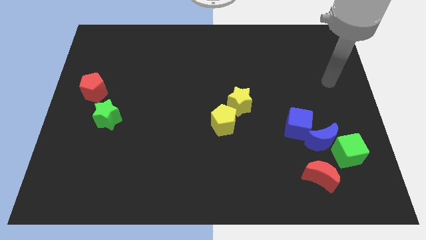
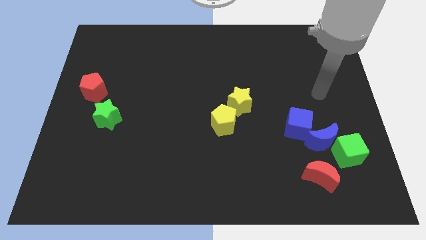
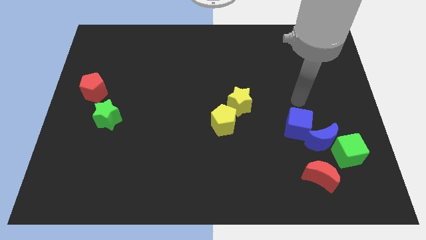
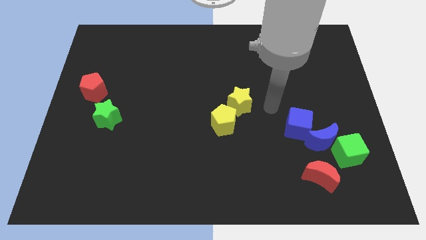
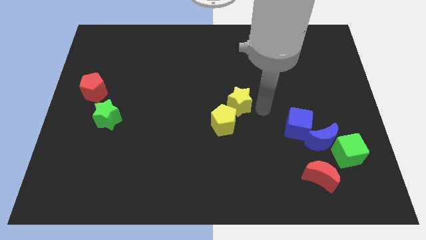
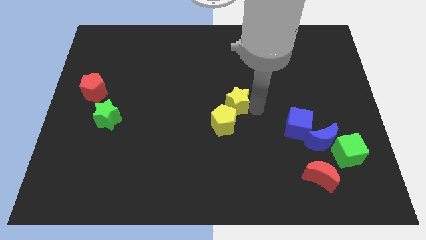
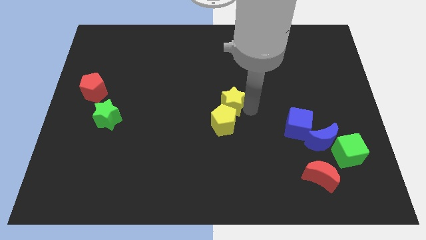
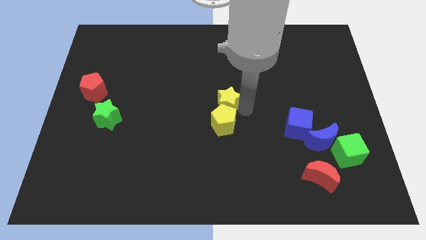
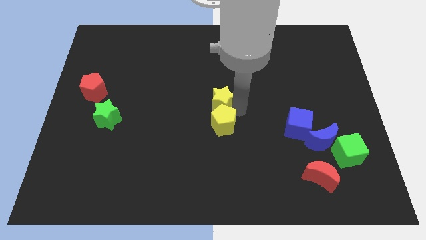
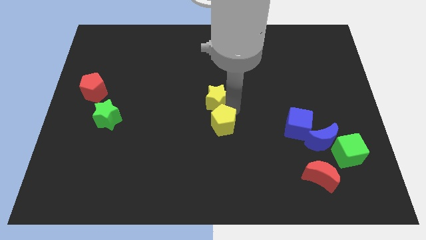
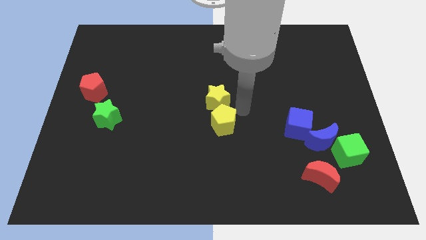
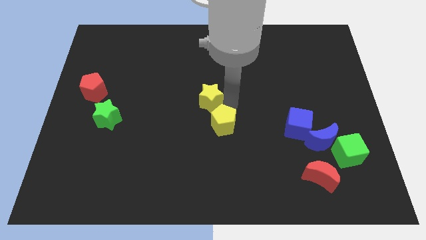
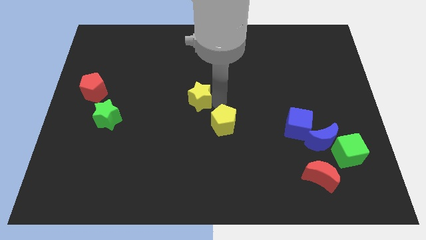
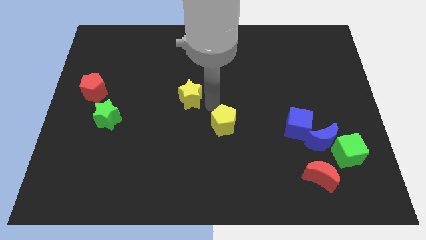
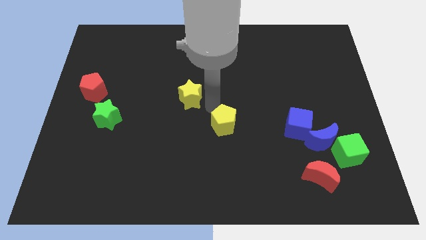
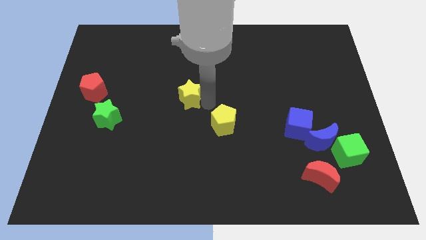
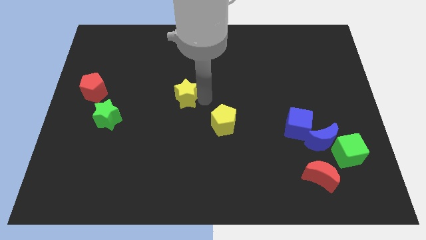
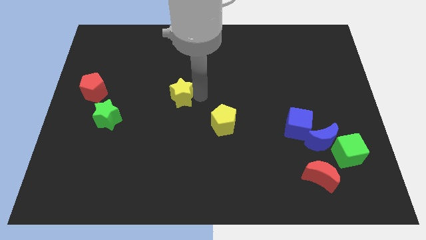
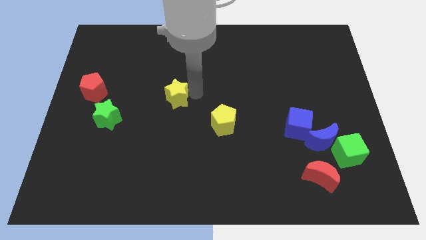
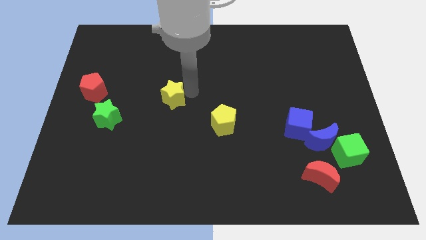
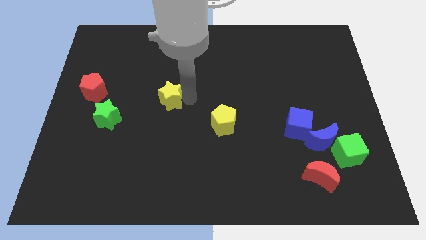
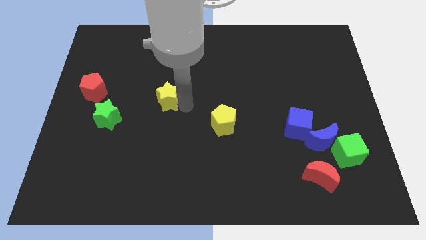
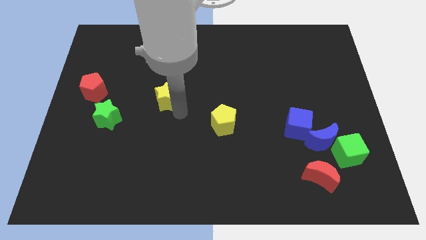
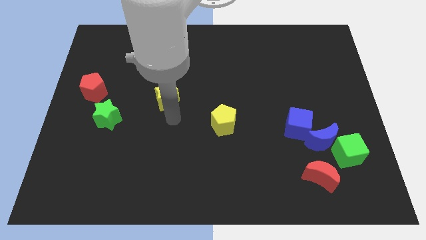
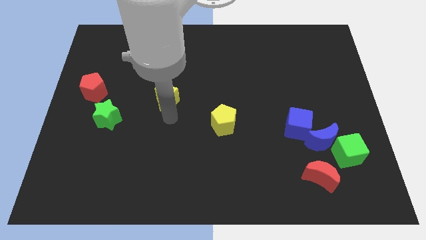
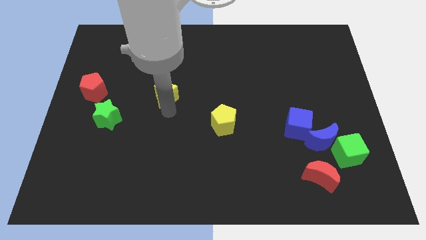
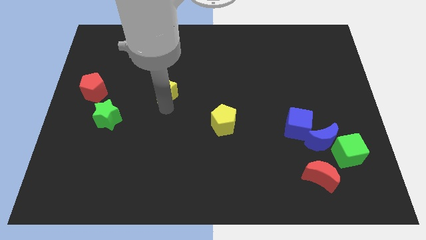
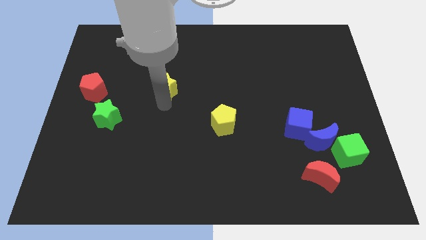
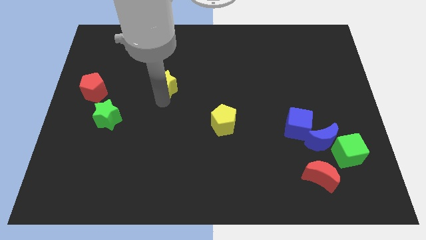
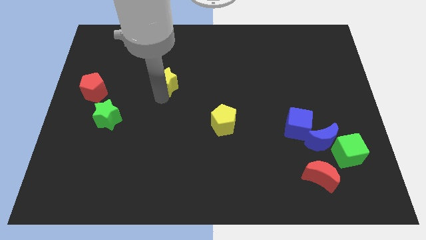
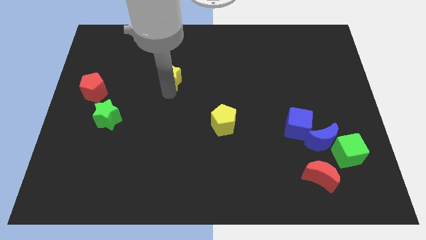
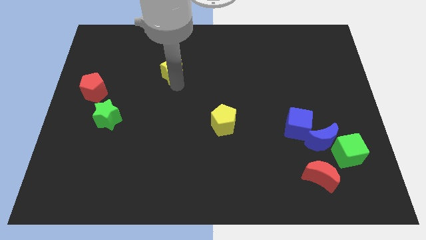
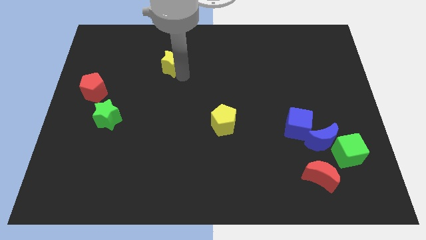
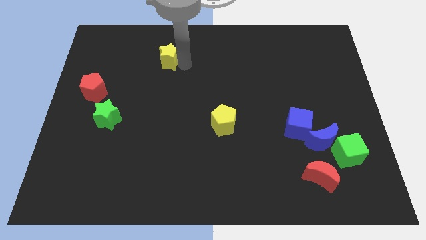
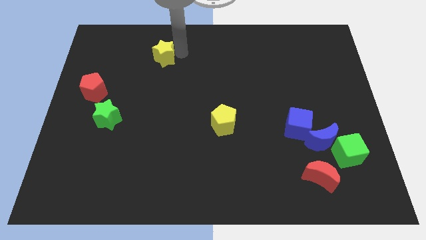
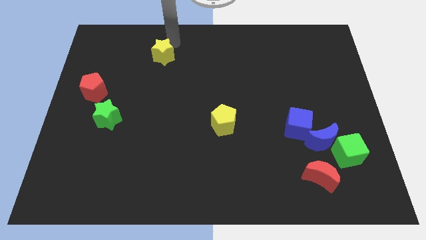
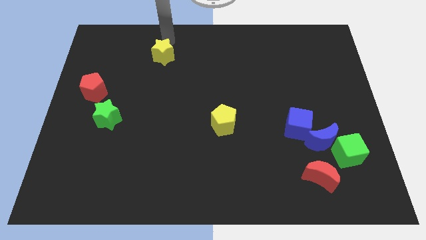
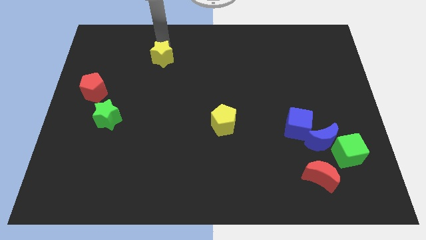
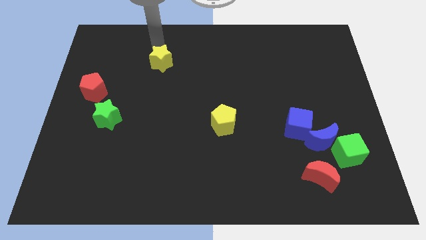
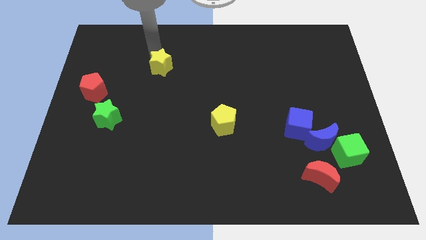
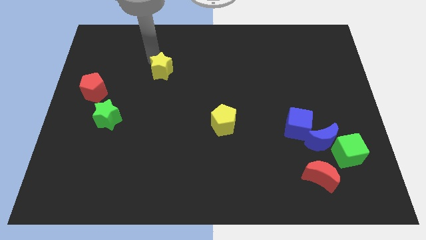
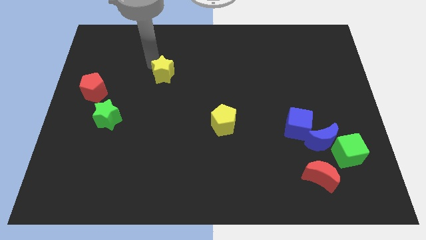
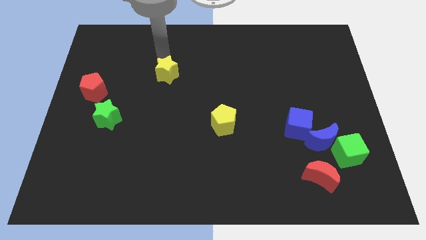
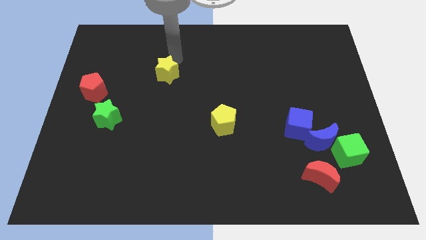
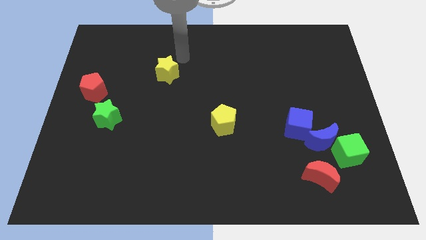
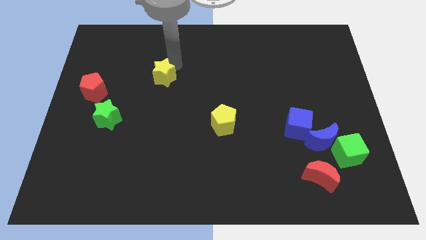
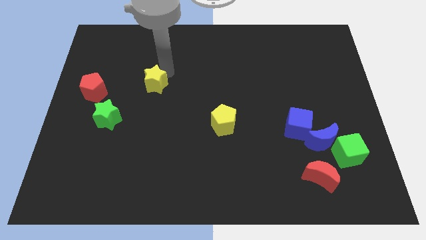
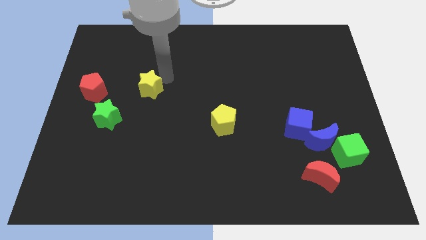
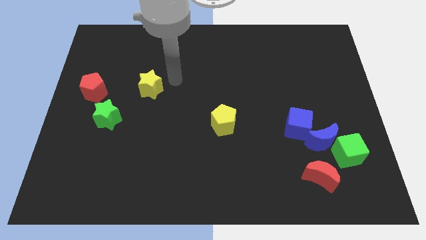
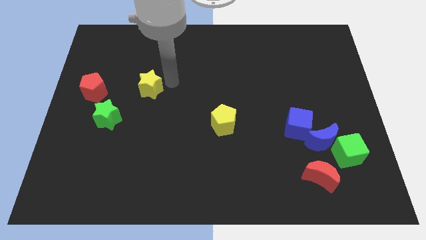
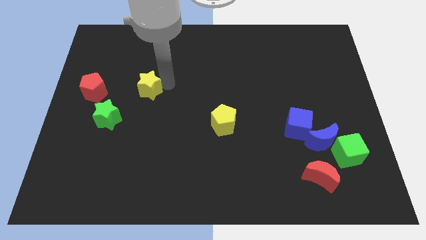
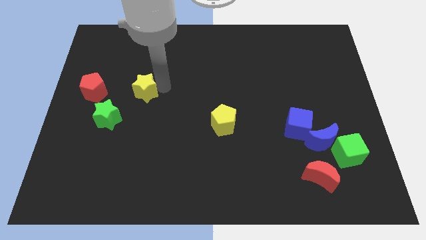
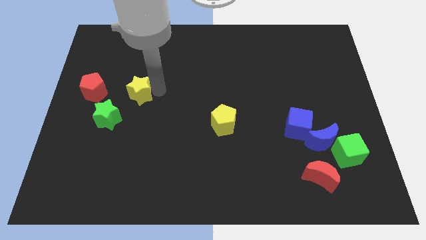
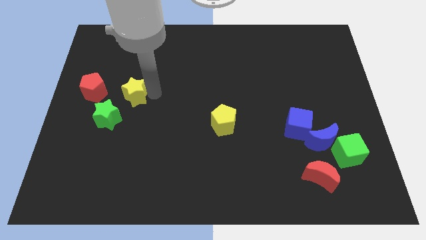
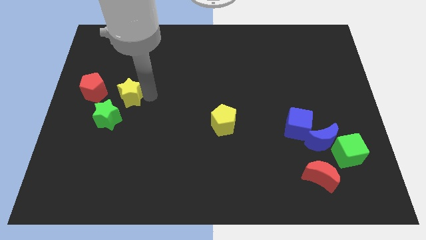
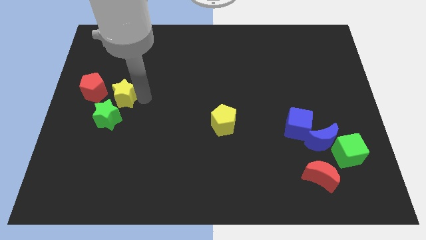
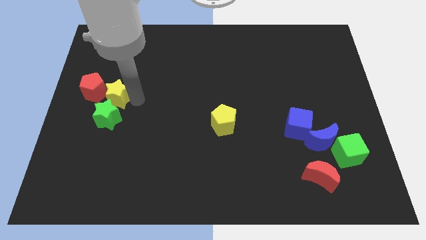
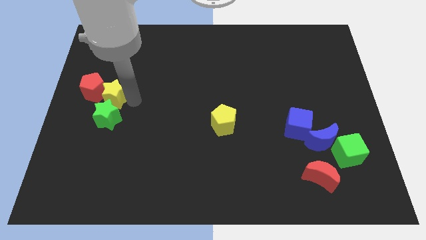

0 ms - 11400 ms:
move the yellow star towards the red pentagon

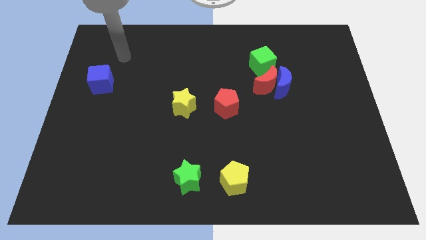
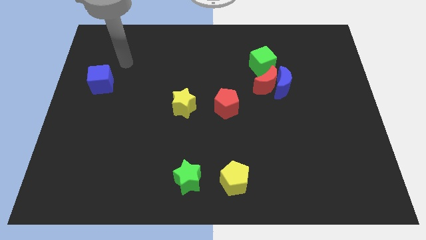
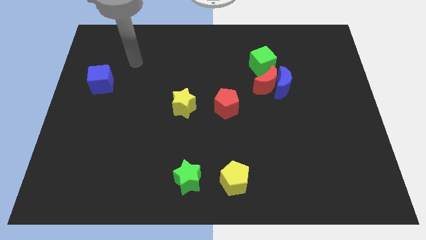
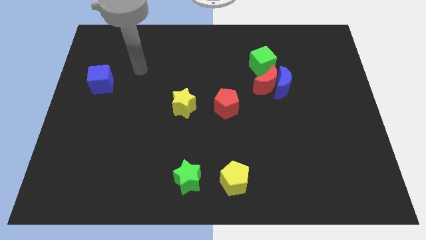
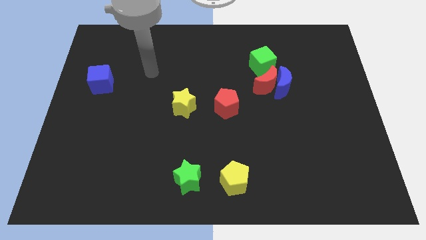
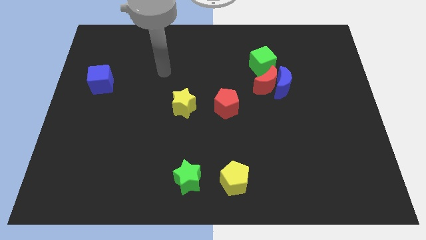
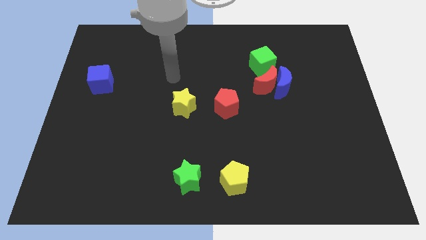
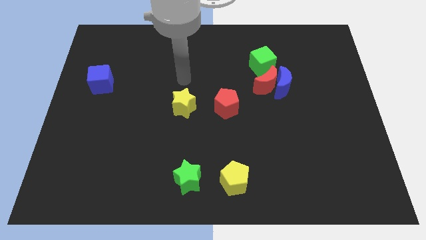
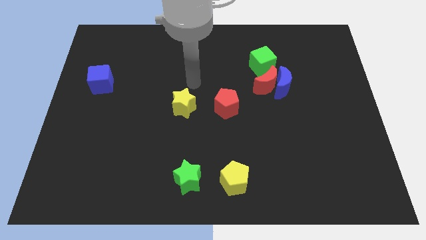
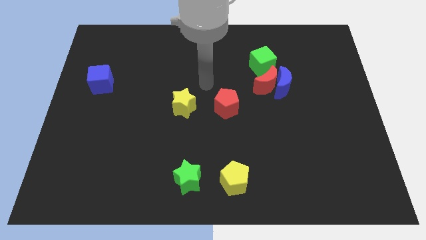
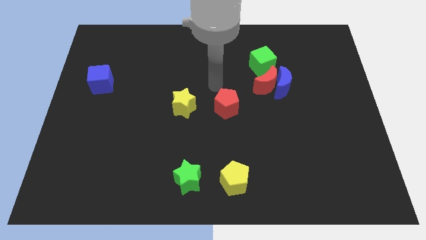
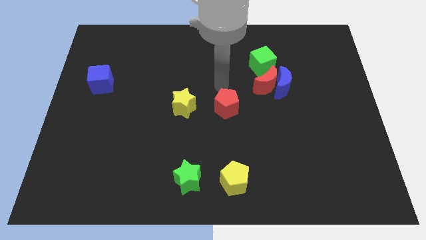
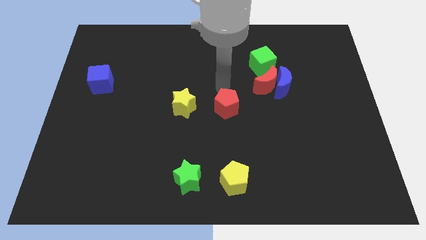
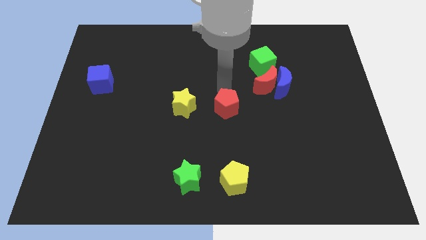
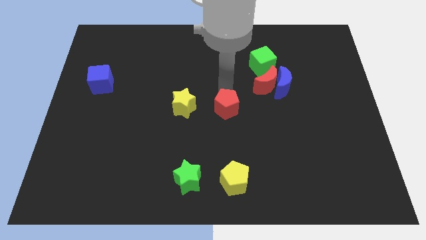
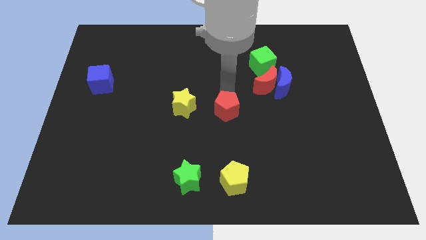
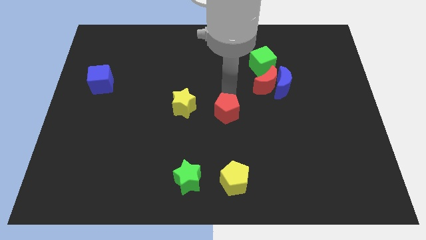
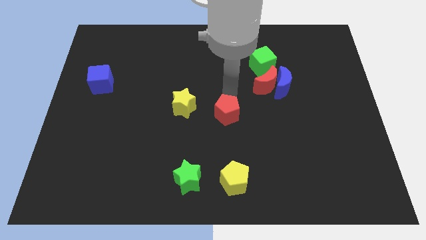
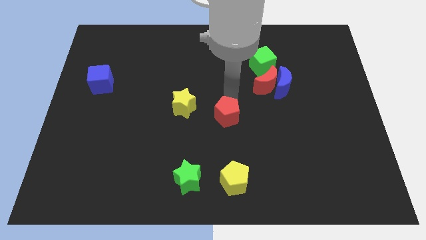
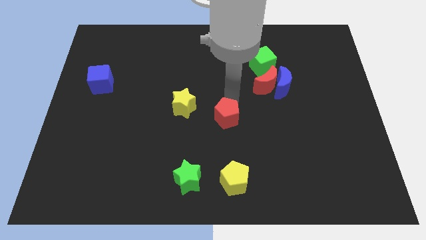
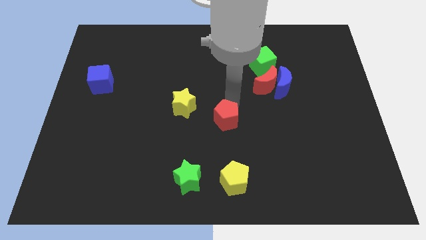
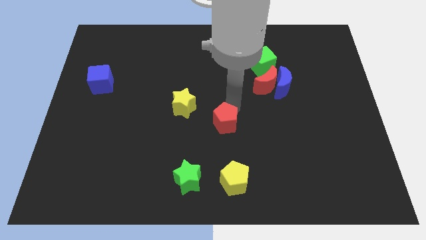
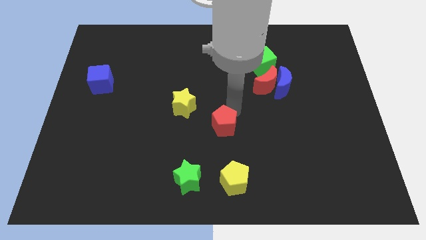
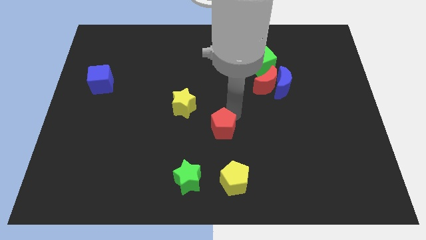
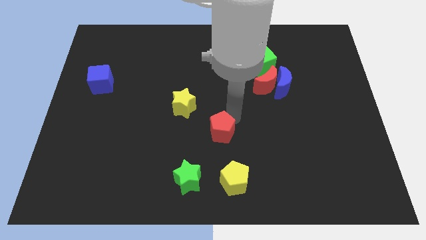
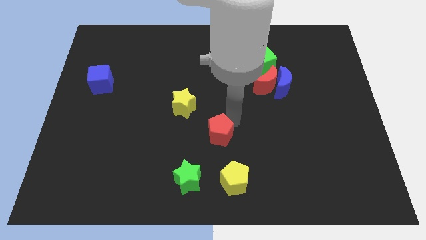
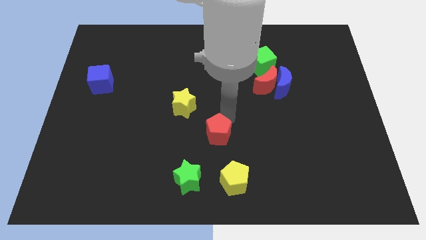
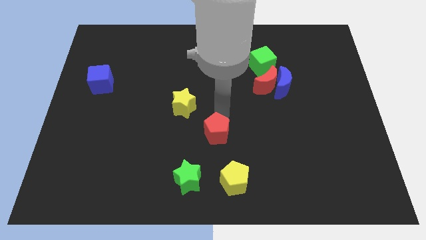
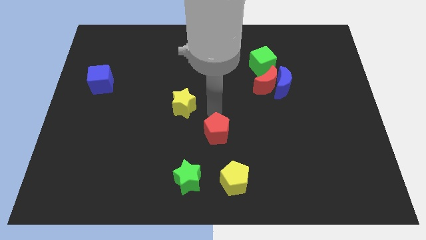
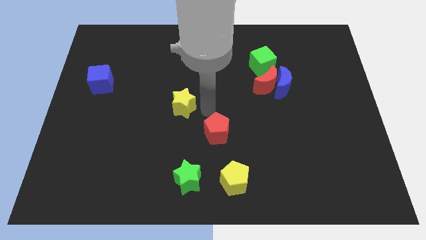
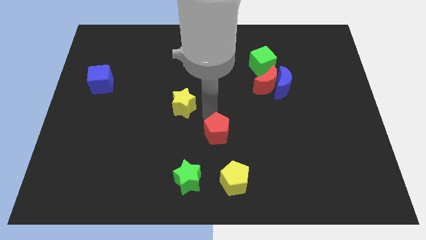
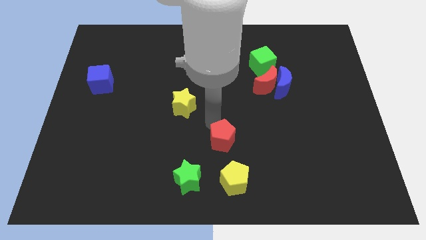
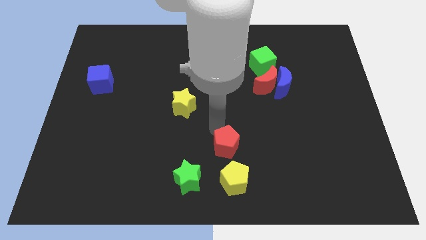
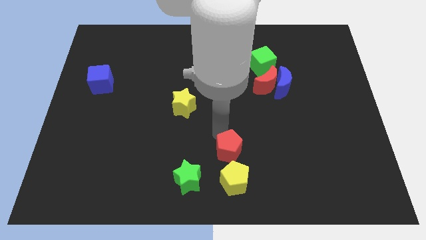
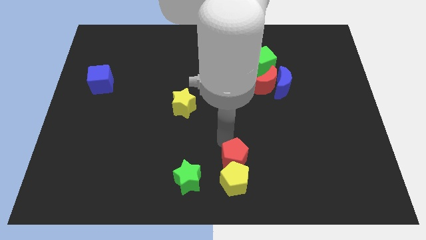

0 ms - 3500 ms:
move the red pentagon to the yellow pentagon
